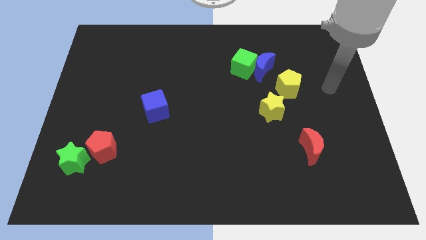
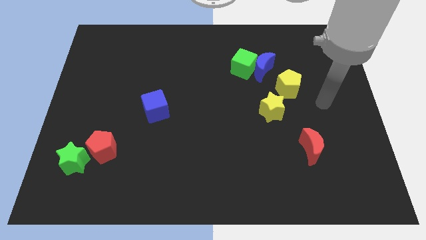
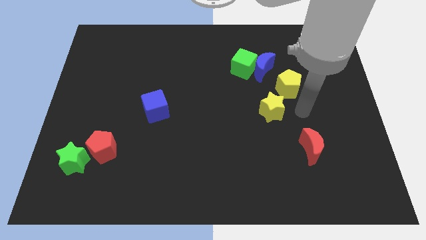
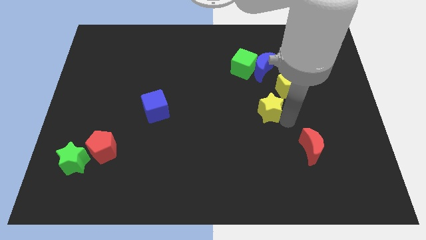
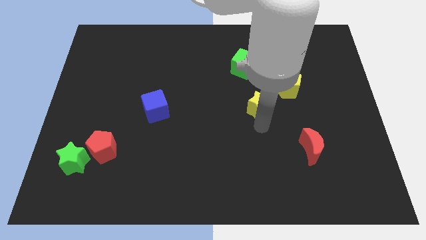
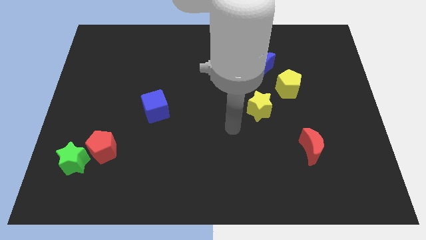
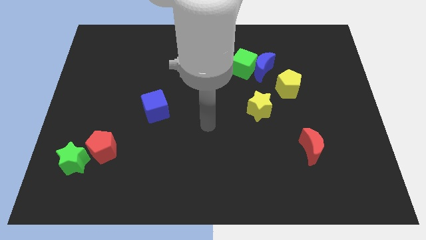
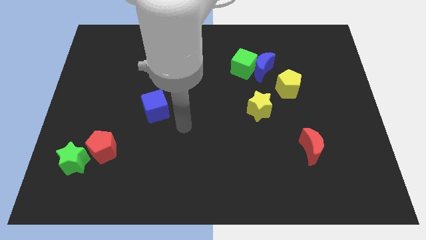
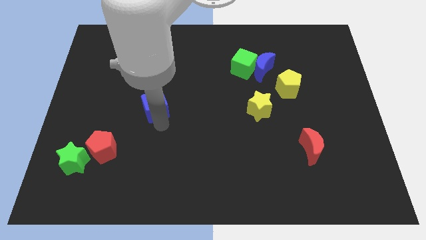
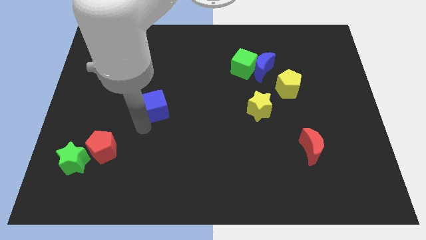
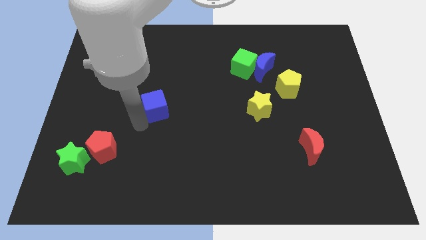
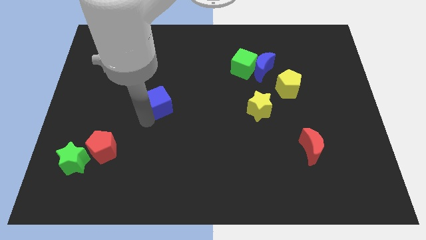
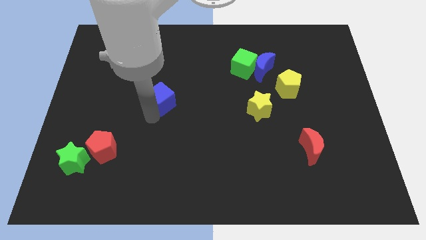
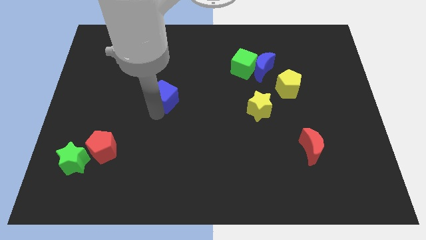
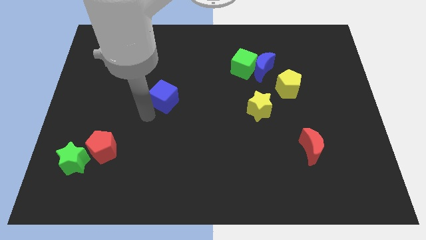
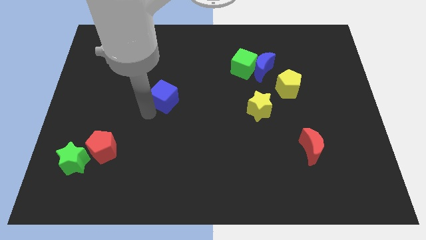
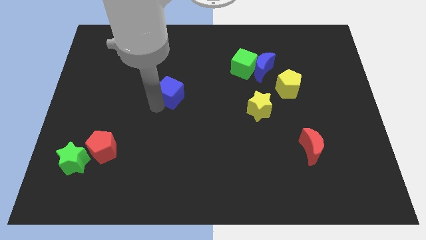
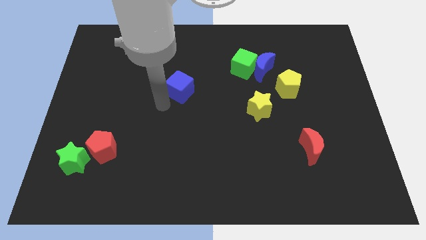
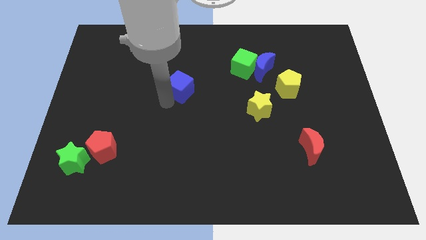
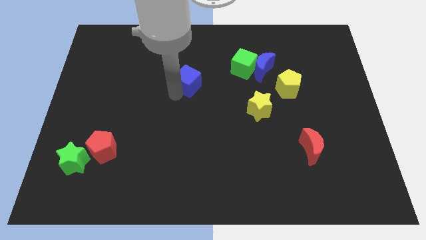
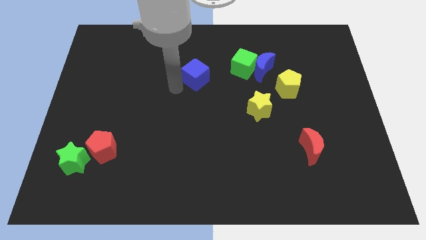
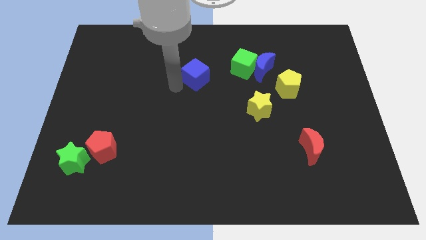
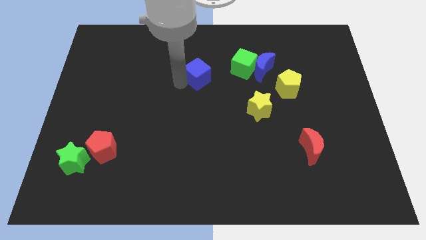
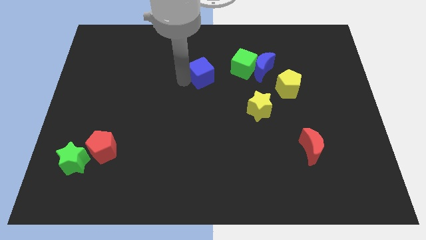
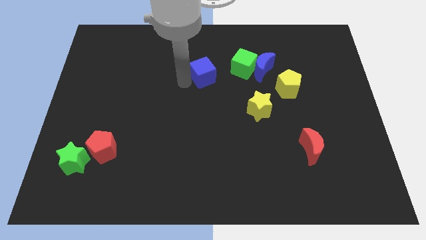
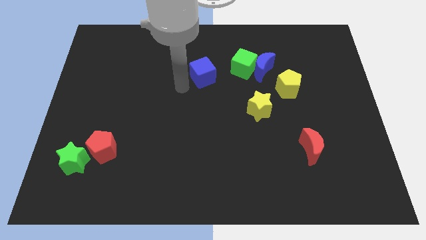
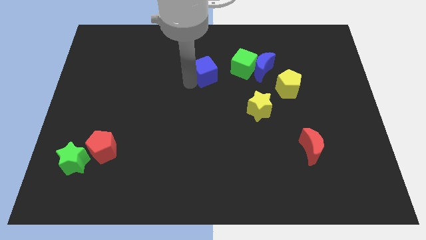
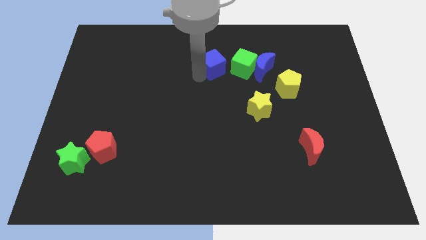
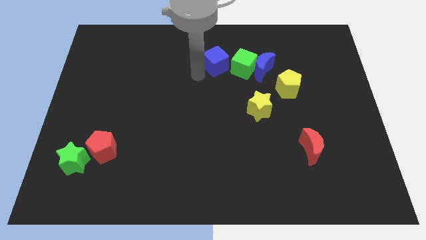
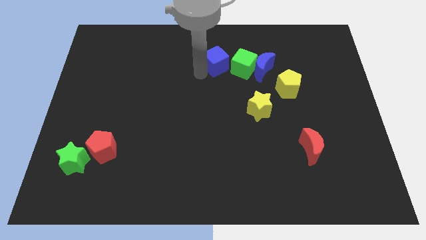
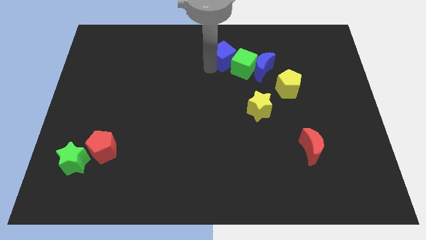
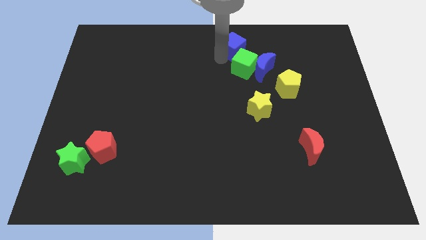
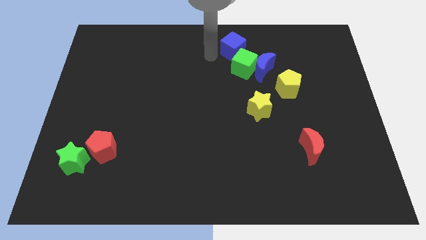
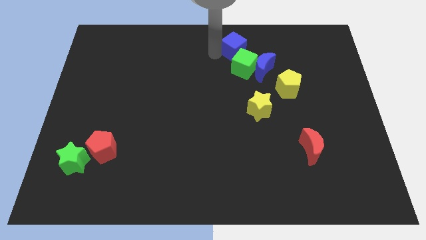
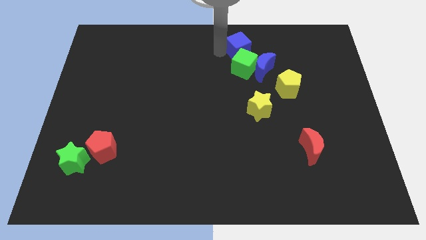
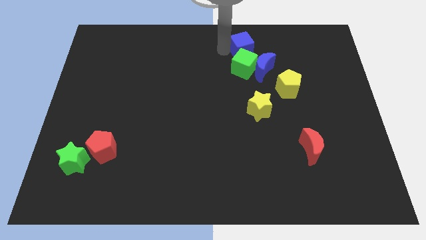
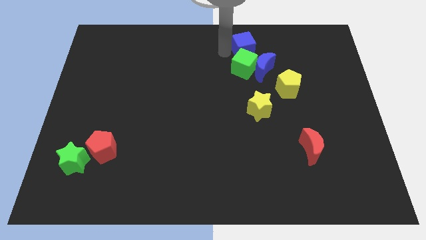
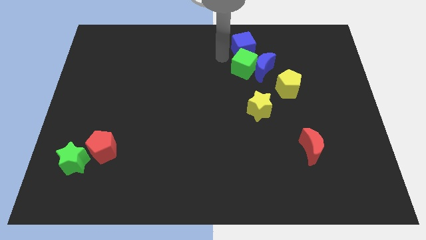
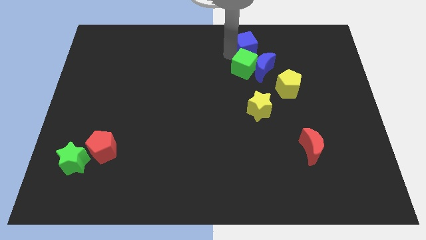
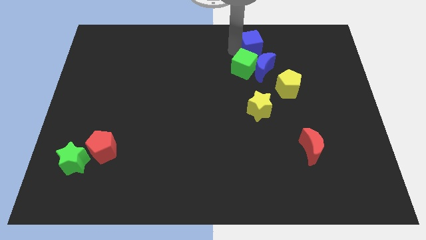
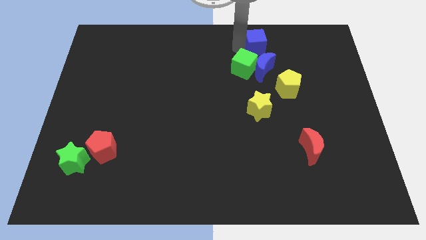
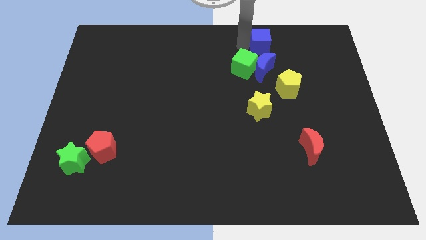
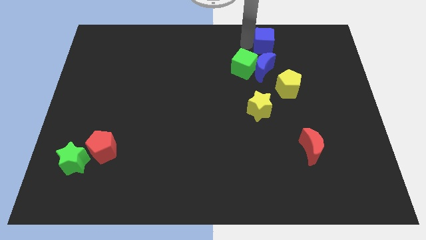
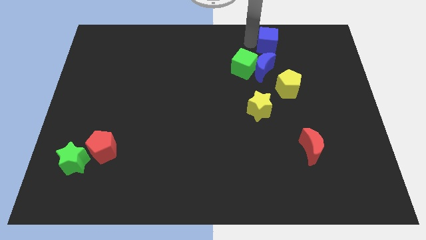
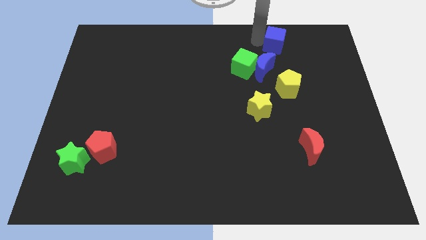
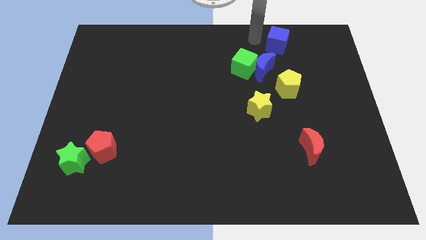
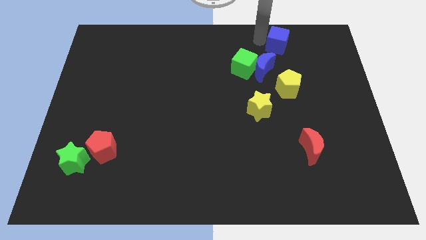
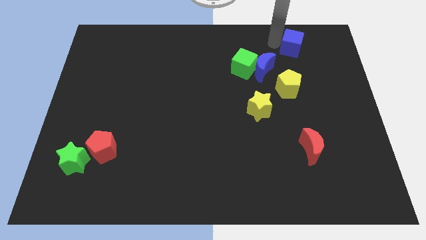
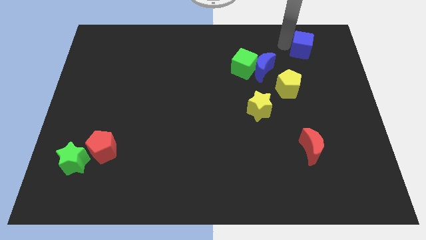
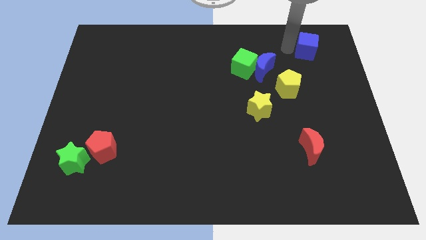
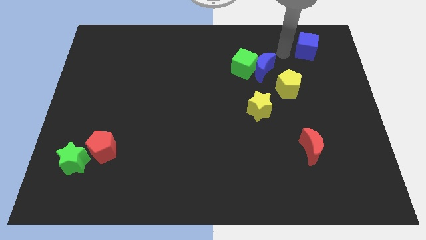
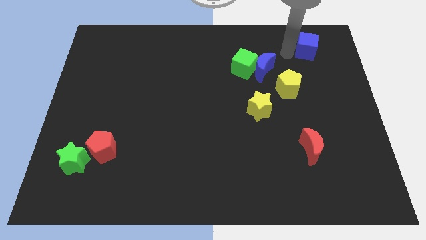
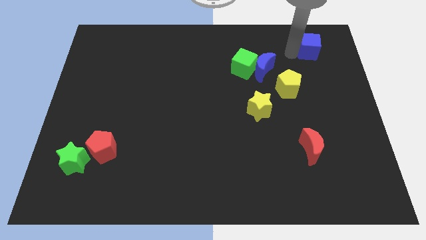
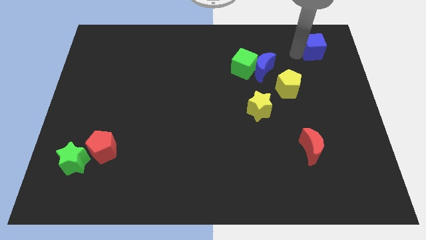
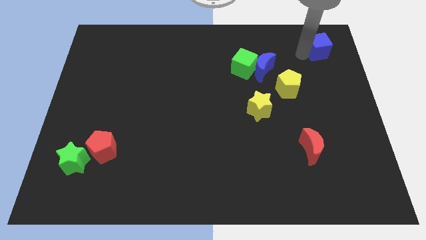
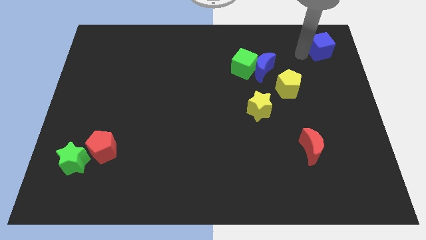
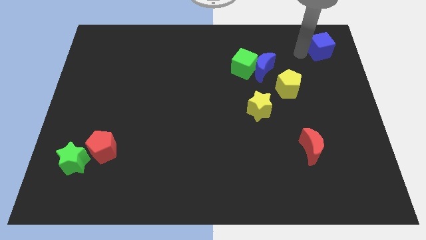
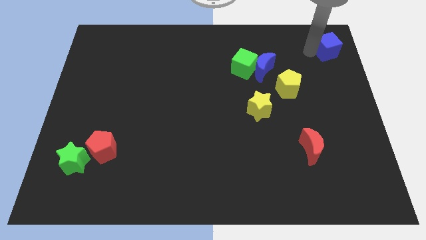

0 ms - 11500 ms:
put the blue cube to the top right

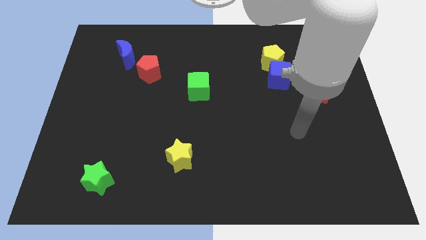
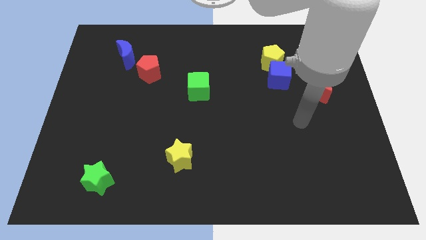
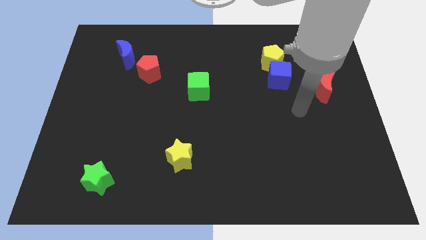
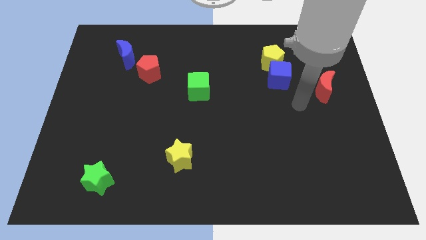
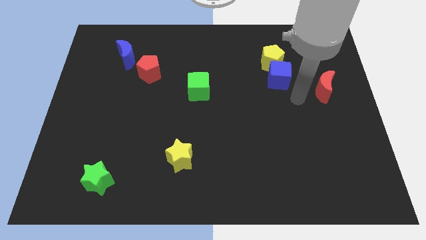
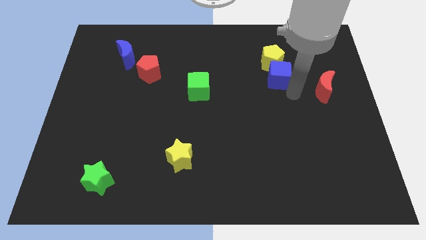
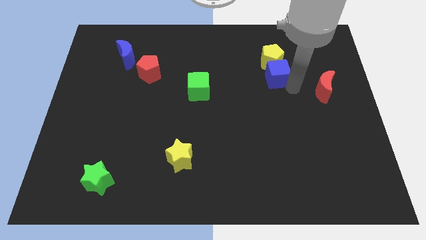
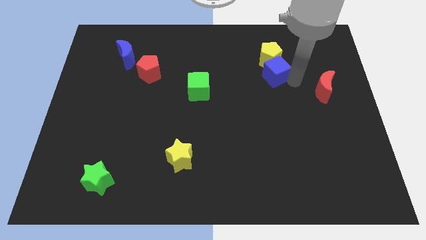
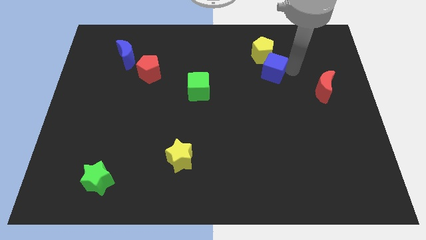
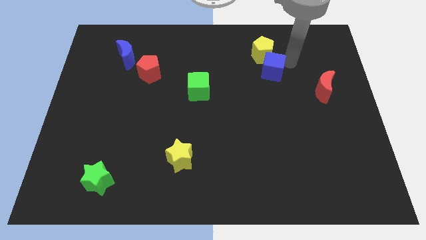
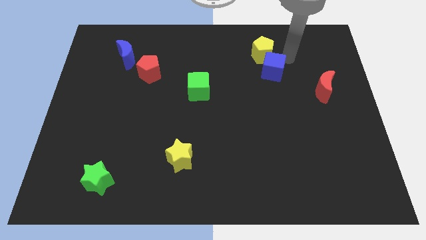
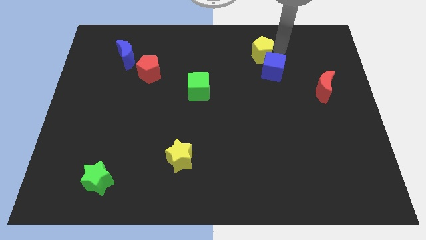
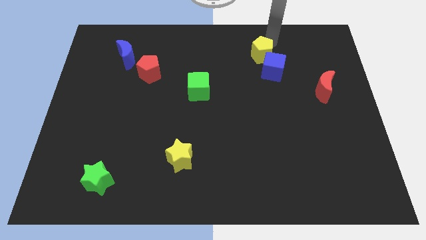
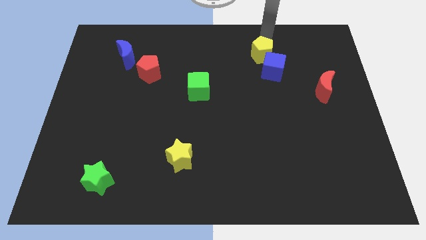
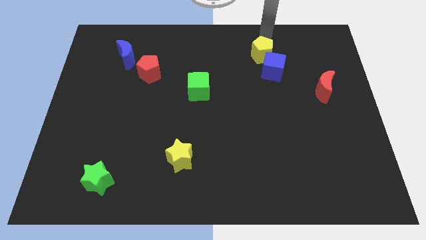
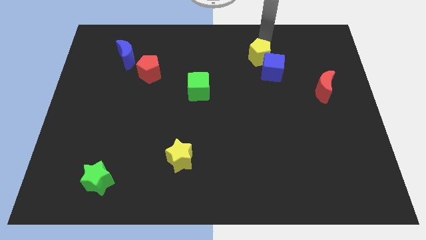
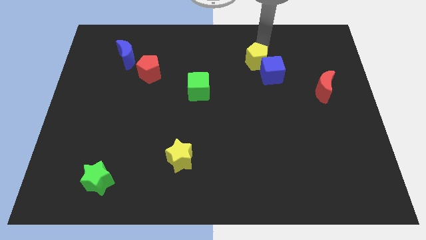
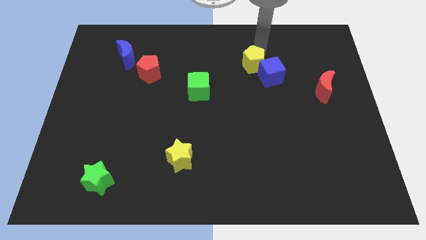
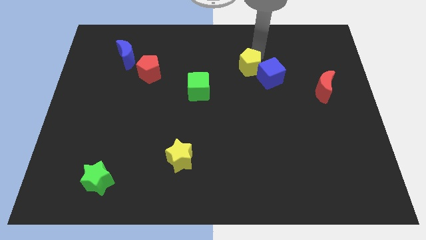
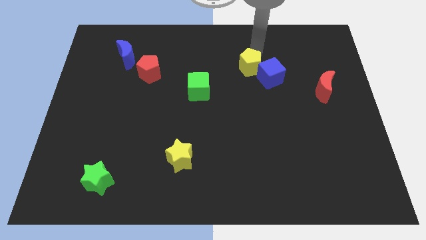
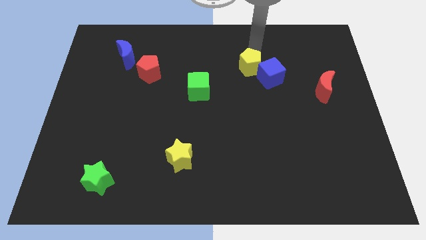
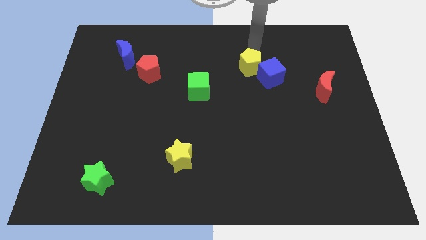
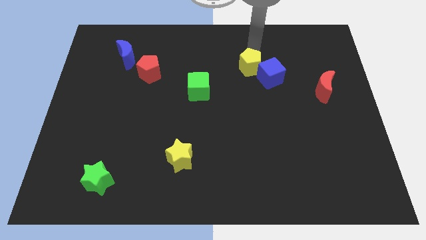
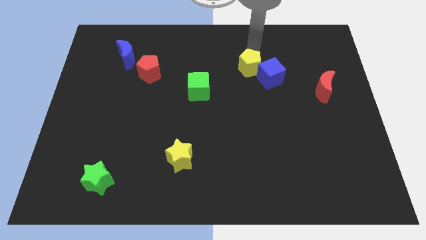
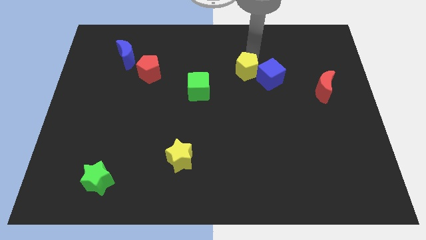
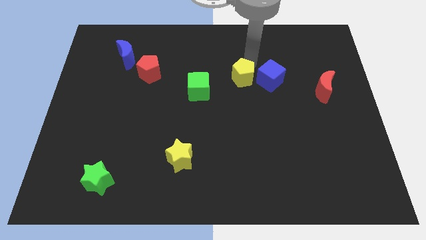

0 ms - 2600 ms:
slide the yellow pentagon to the center of the board
